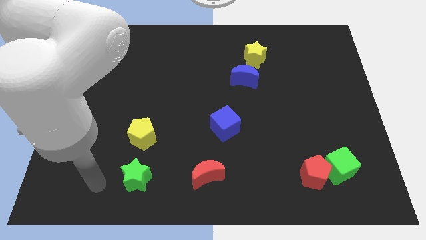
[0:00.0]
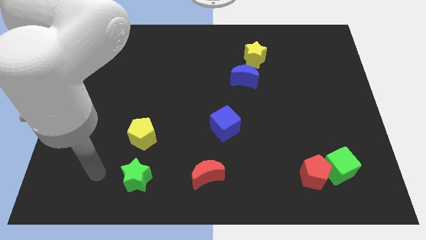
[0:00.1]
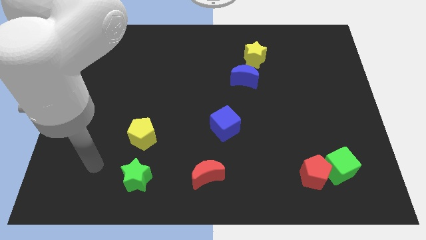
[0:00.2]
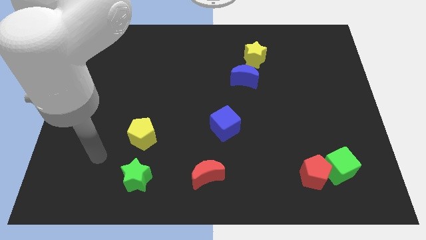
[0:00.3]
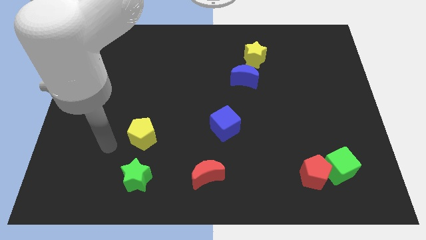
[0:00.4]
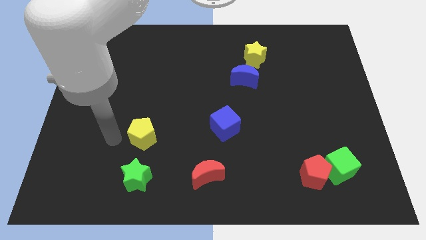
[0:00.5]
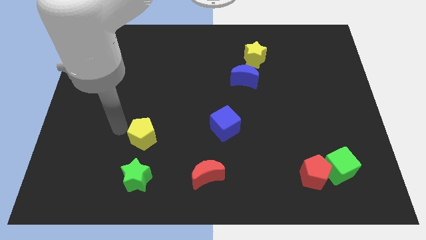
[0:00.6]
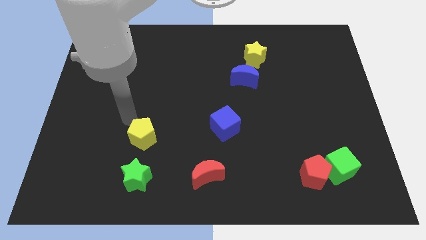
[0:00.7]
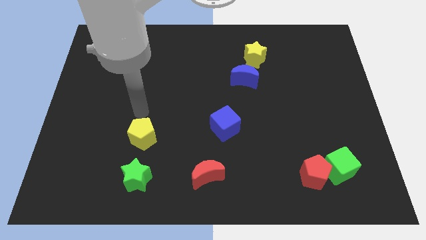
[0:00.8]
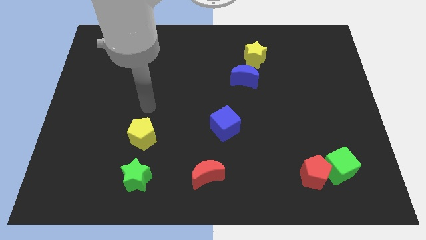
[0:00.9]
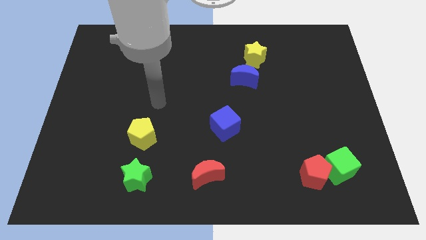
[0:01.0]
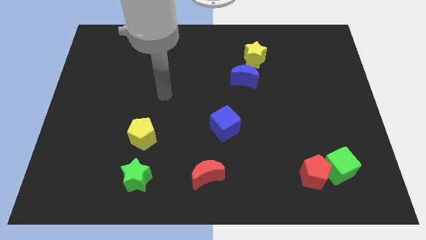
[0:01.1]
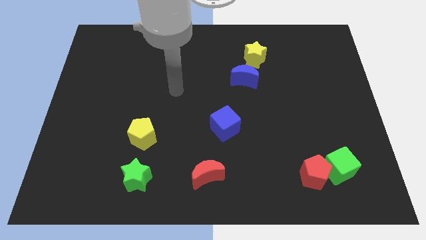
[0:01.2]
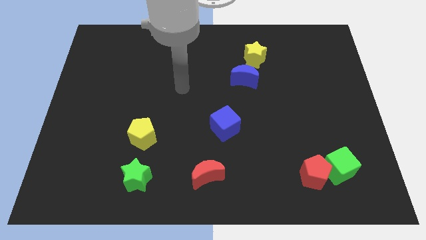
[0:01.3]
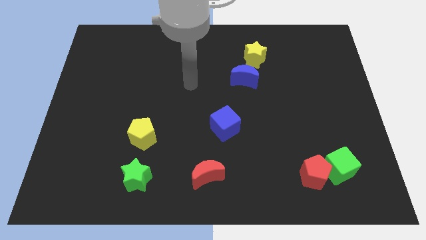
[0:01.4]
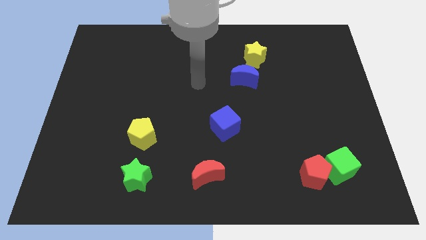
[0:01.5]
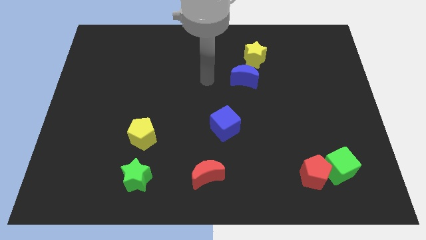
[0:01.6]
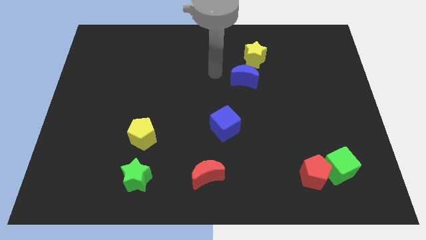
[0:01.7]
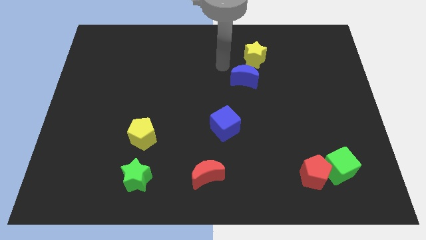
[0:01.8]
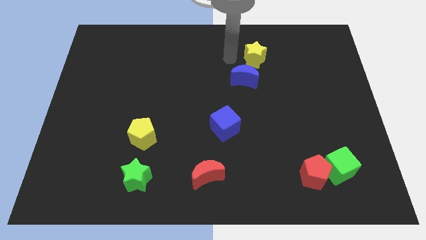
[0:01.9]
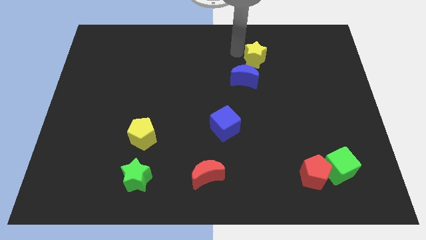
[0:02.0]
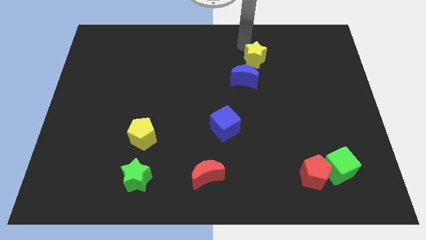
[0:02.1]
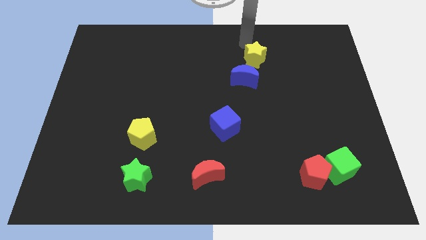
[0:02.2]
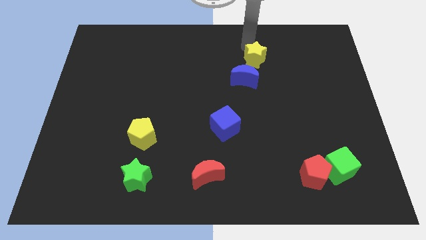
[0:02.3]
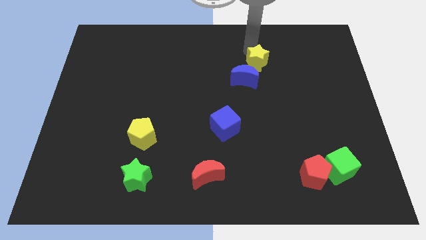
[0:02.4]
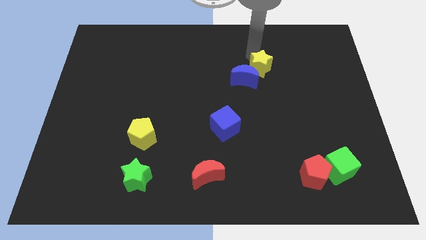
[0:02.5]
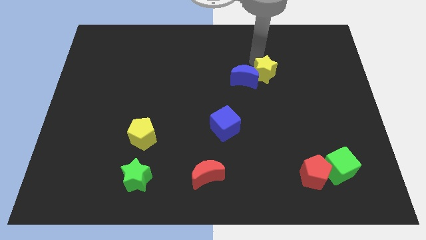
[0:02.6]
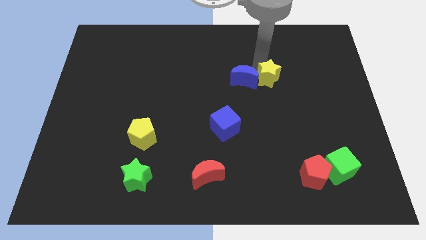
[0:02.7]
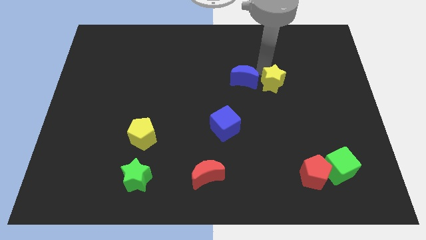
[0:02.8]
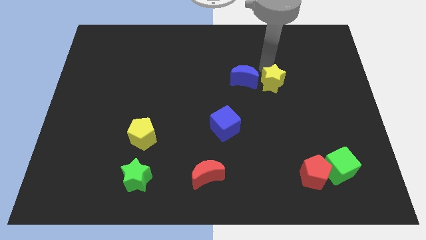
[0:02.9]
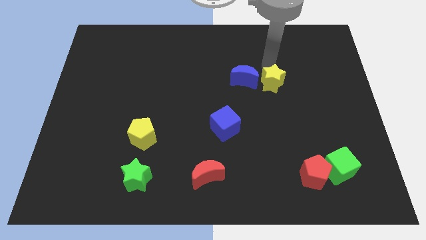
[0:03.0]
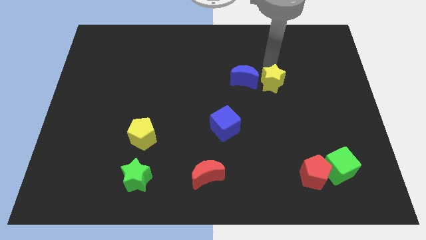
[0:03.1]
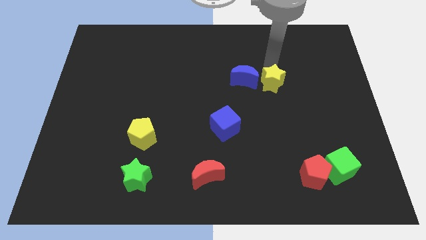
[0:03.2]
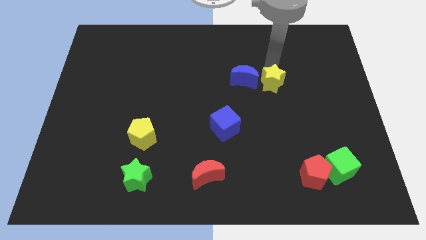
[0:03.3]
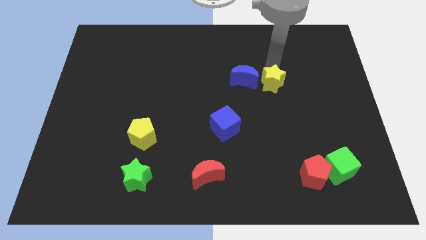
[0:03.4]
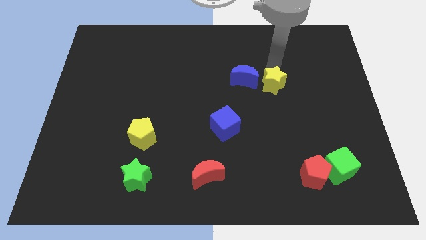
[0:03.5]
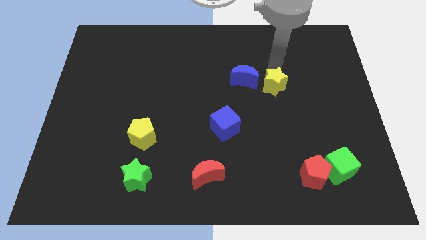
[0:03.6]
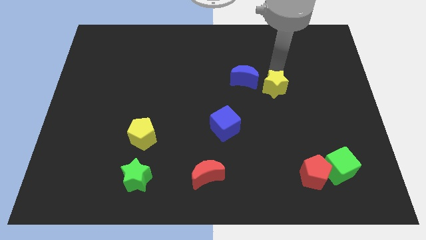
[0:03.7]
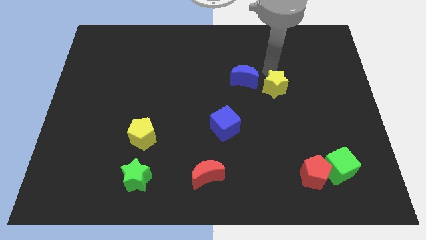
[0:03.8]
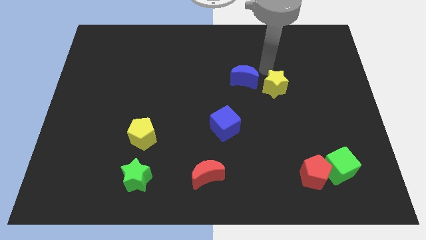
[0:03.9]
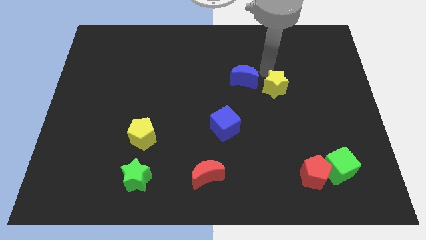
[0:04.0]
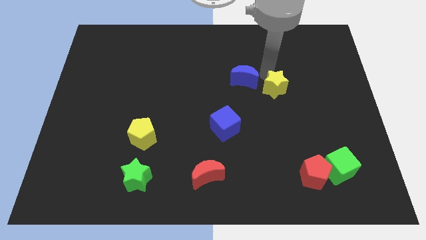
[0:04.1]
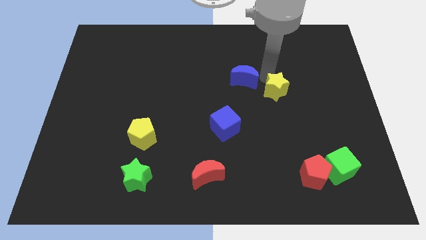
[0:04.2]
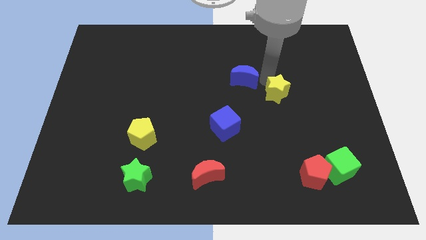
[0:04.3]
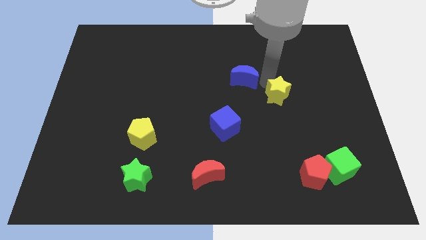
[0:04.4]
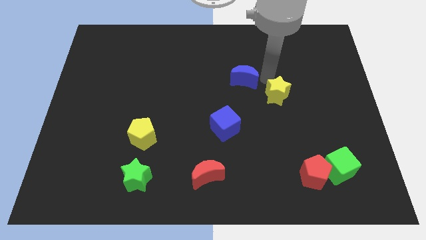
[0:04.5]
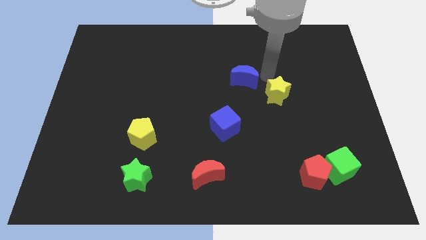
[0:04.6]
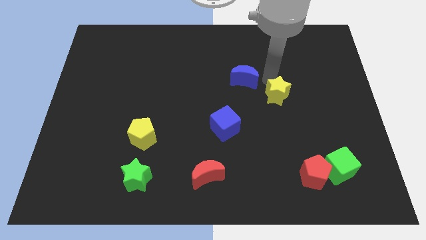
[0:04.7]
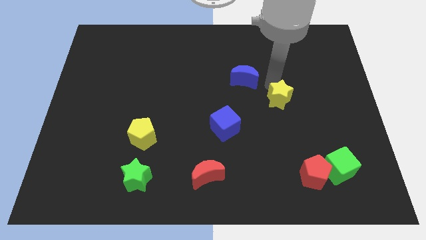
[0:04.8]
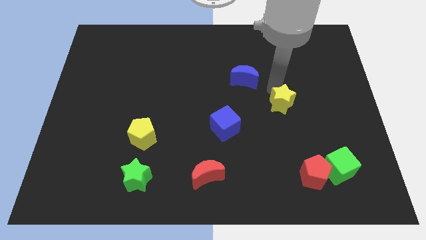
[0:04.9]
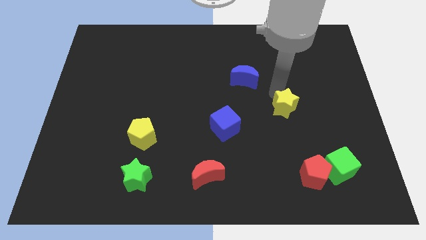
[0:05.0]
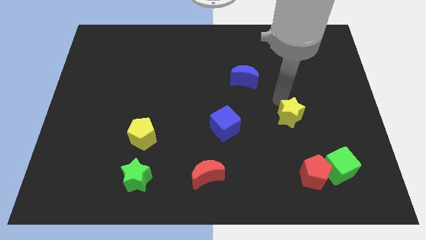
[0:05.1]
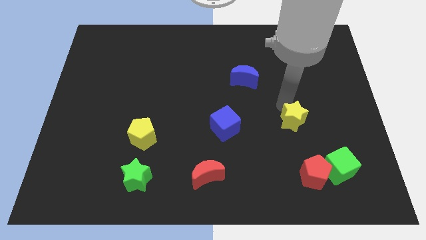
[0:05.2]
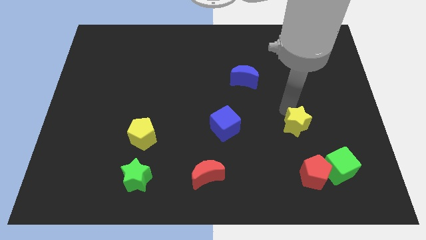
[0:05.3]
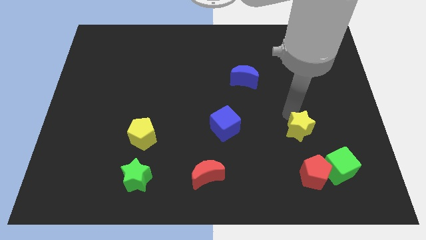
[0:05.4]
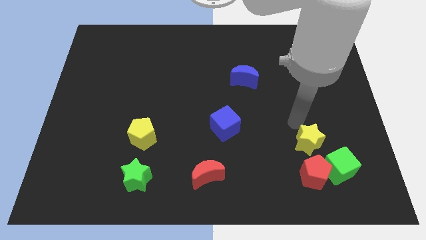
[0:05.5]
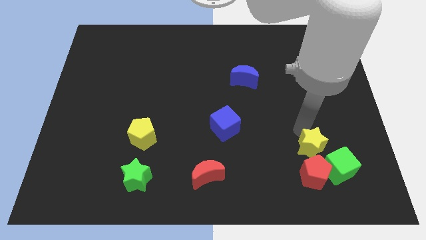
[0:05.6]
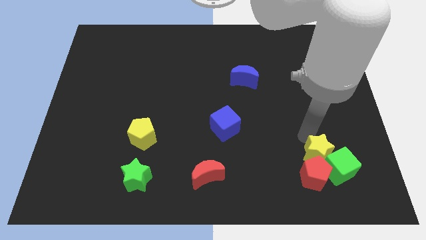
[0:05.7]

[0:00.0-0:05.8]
push the yellow star next to the red pentagon

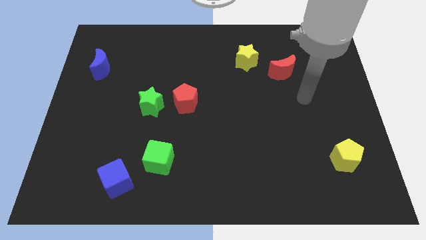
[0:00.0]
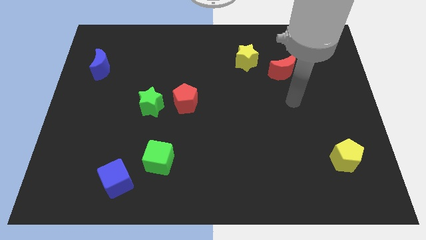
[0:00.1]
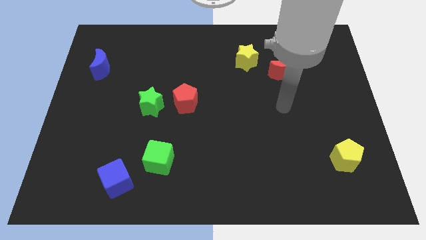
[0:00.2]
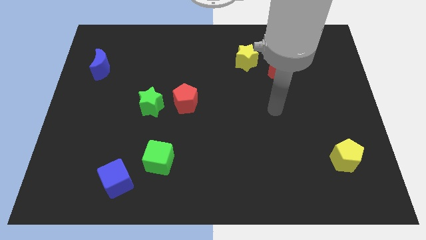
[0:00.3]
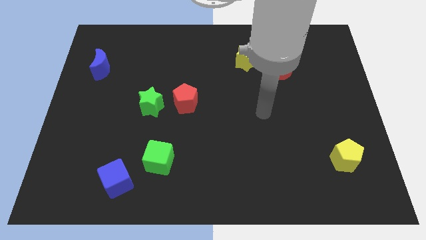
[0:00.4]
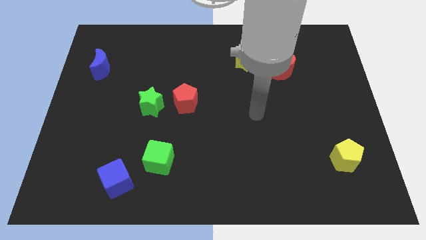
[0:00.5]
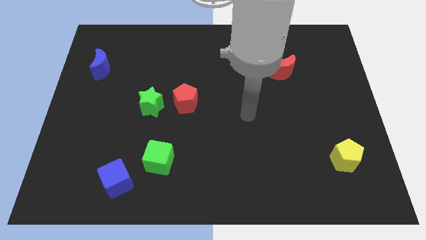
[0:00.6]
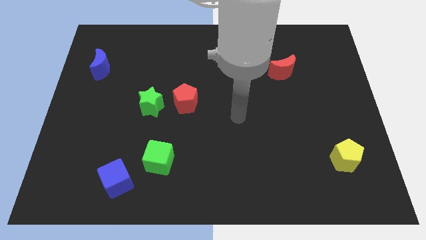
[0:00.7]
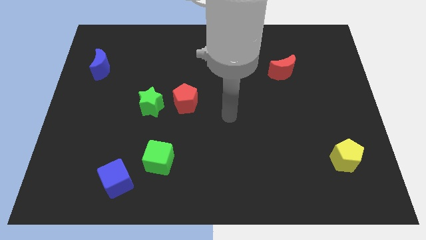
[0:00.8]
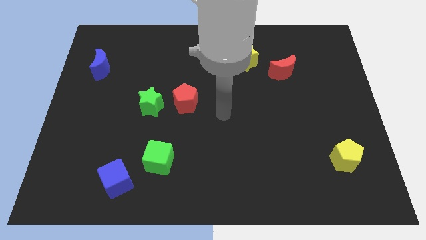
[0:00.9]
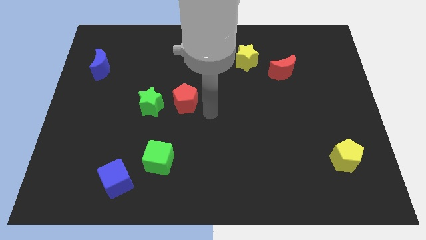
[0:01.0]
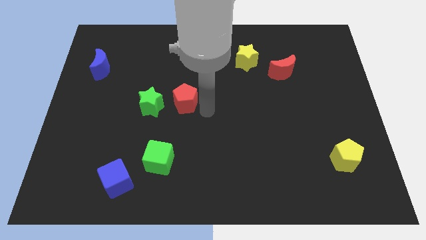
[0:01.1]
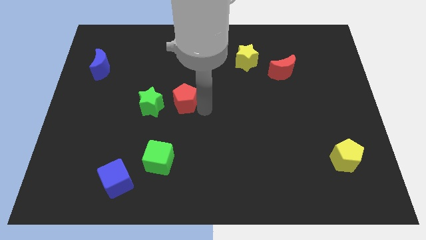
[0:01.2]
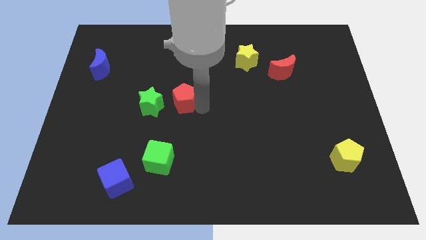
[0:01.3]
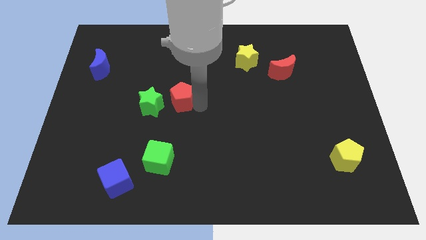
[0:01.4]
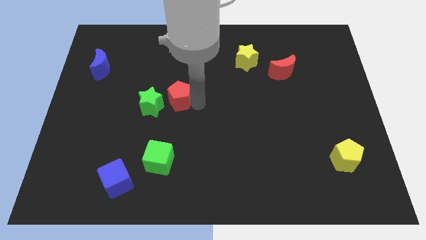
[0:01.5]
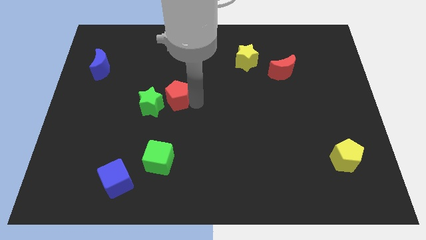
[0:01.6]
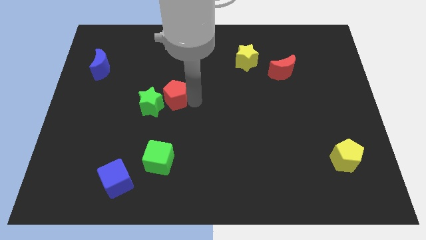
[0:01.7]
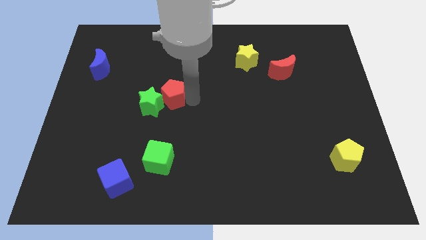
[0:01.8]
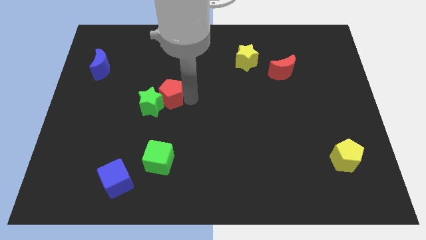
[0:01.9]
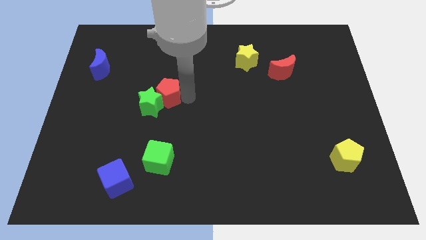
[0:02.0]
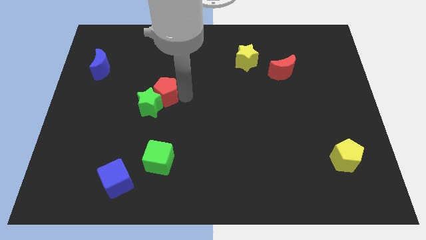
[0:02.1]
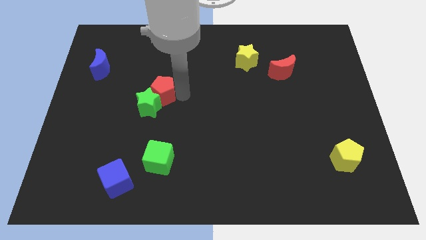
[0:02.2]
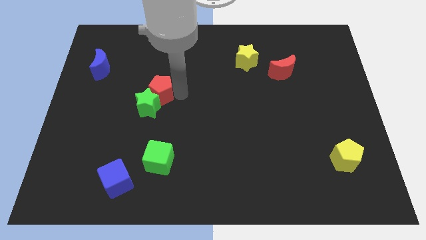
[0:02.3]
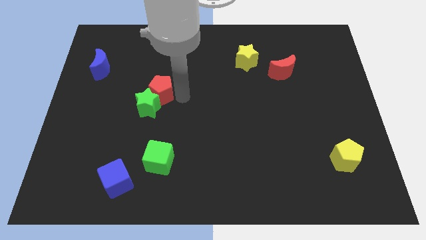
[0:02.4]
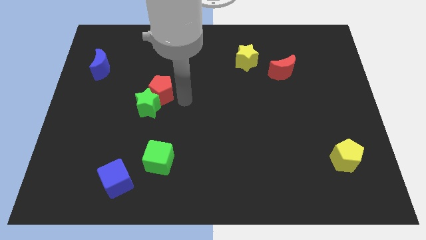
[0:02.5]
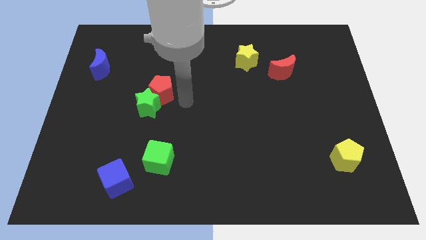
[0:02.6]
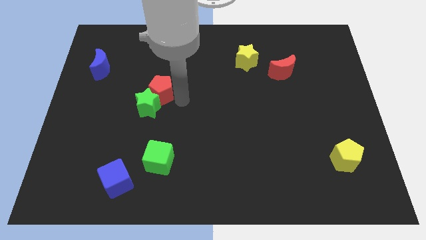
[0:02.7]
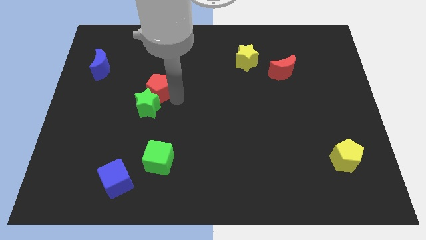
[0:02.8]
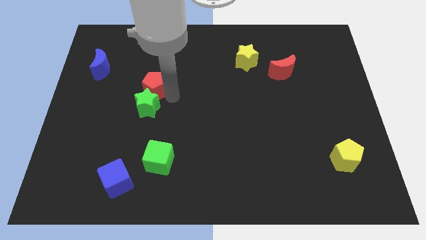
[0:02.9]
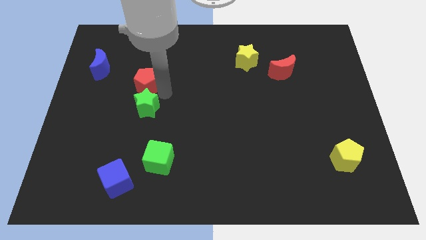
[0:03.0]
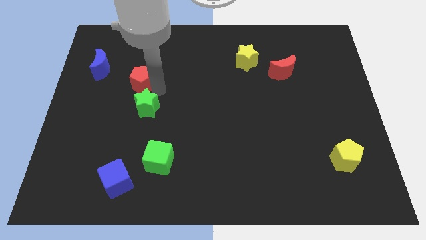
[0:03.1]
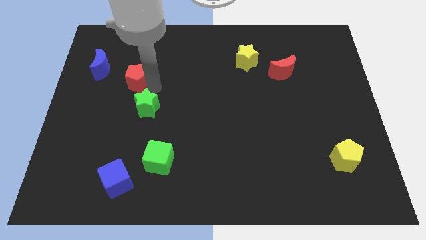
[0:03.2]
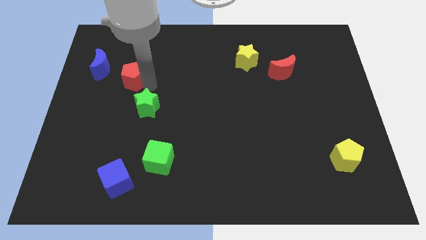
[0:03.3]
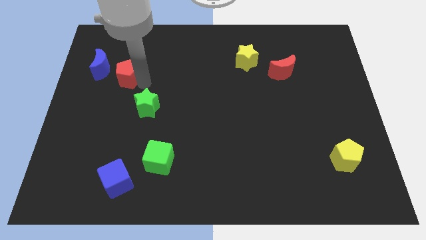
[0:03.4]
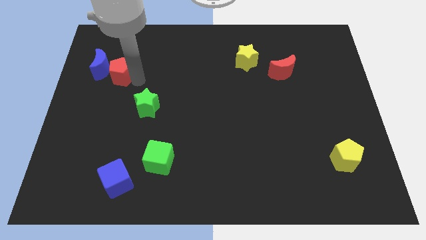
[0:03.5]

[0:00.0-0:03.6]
push the red pentagon next to the blue moon
